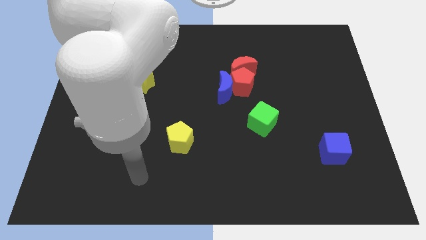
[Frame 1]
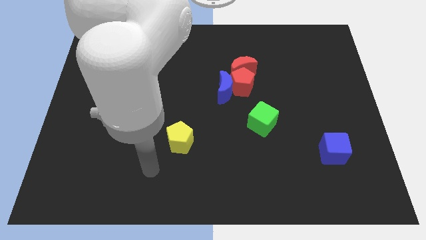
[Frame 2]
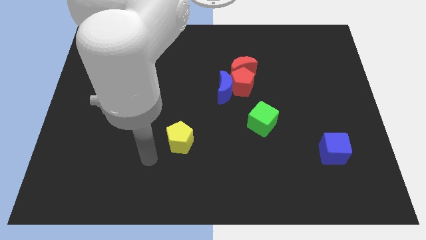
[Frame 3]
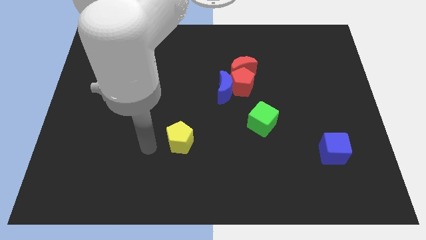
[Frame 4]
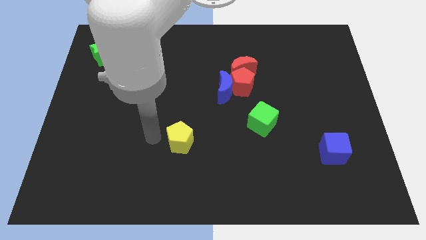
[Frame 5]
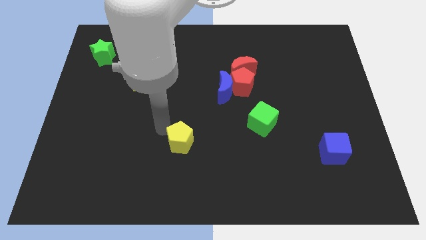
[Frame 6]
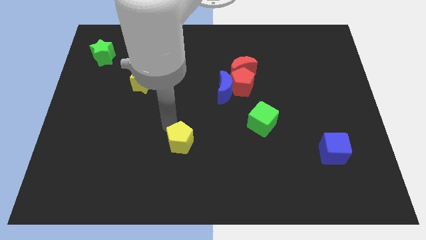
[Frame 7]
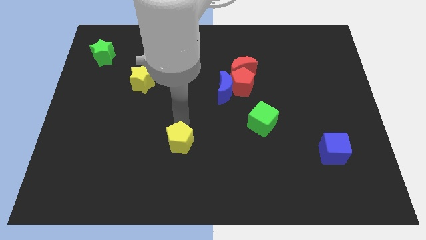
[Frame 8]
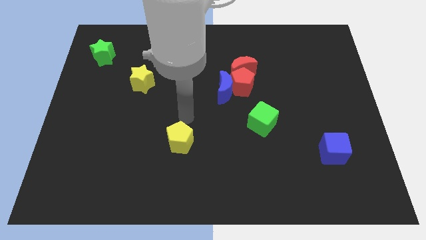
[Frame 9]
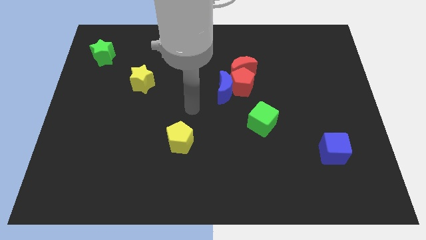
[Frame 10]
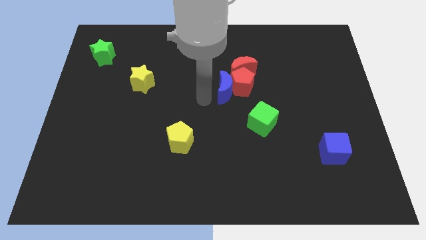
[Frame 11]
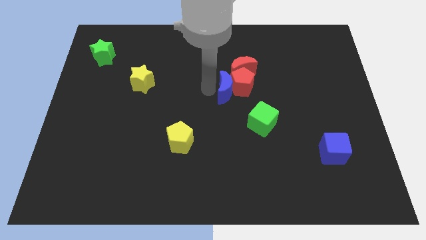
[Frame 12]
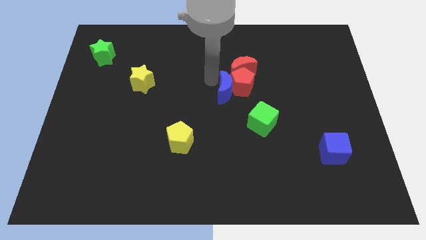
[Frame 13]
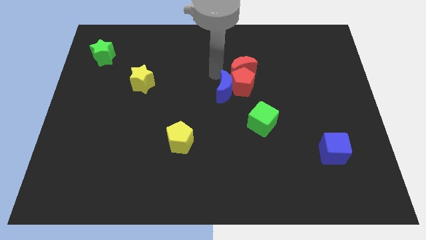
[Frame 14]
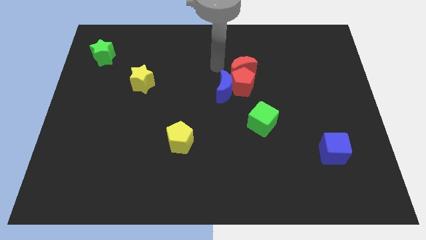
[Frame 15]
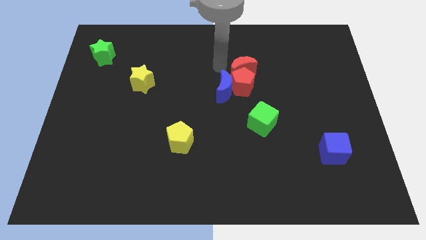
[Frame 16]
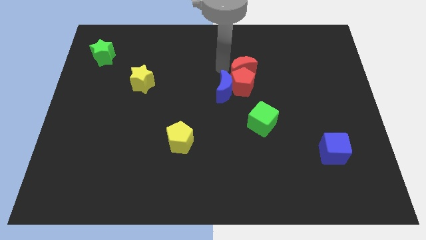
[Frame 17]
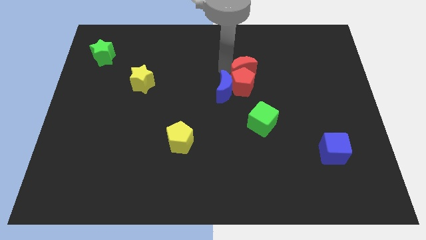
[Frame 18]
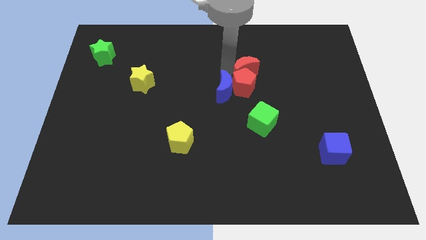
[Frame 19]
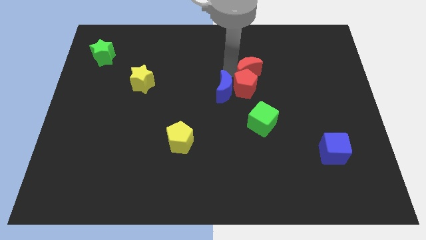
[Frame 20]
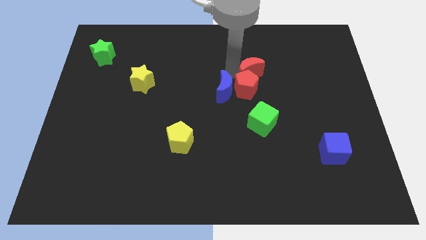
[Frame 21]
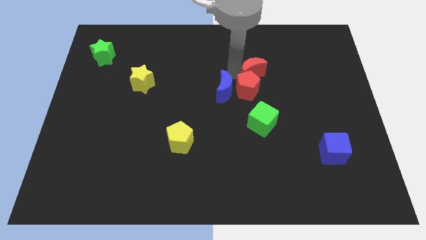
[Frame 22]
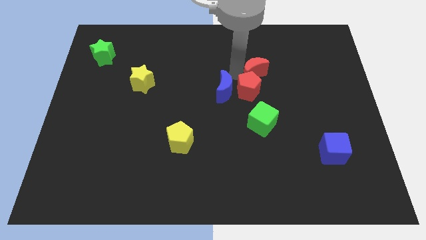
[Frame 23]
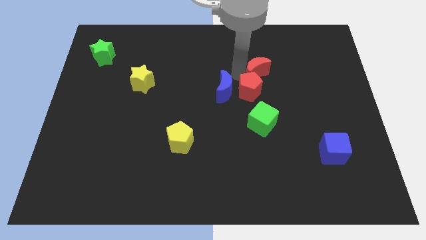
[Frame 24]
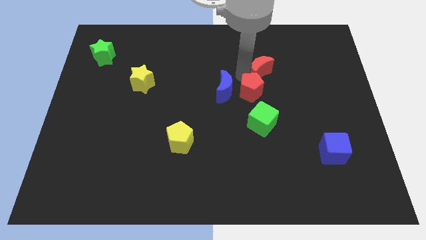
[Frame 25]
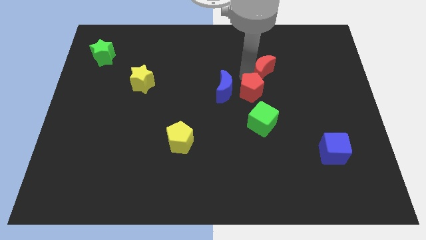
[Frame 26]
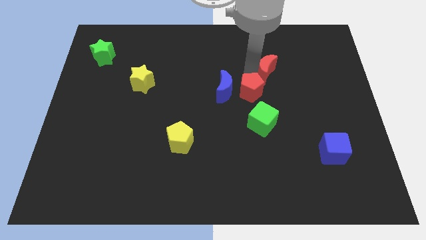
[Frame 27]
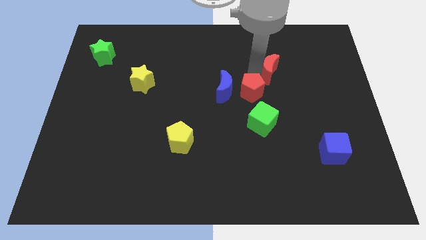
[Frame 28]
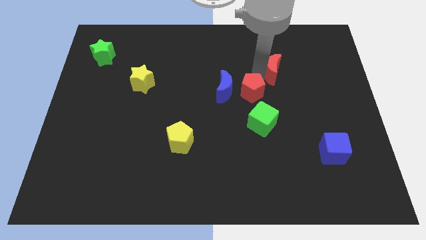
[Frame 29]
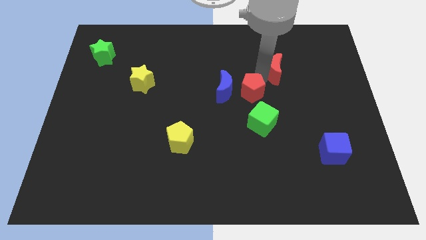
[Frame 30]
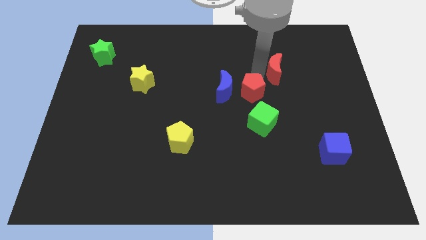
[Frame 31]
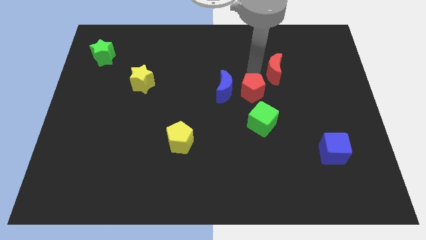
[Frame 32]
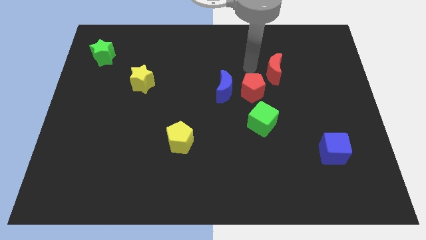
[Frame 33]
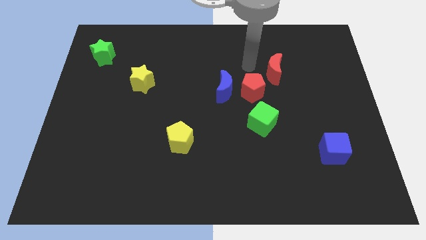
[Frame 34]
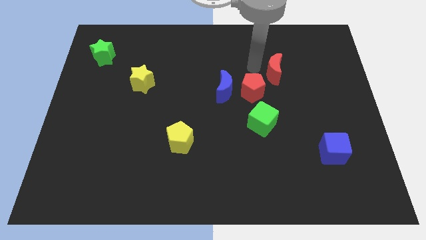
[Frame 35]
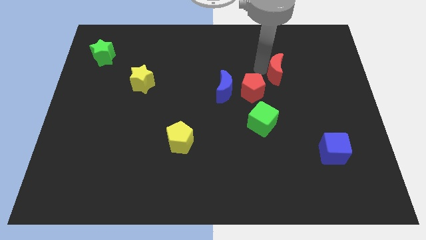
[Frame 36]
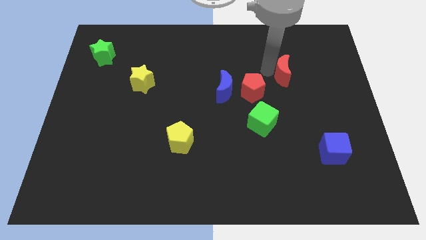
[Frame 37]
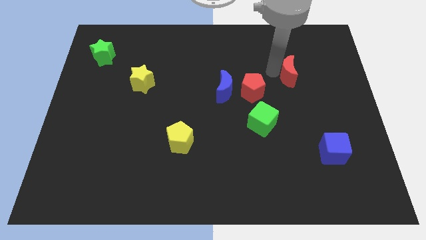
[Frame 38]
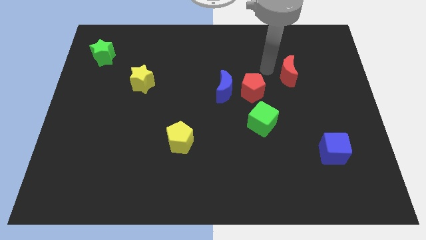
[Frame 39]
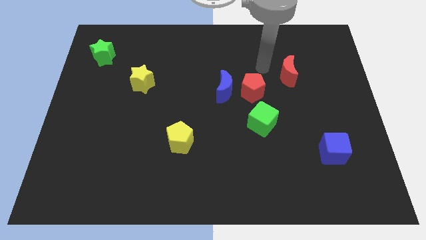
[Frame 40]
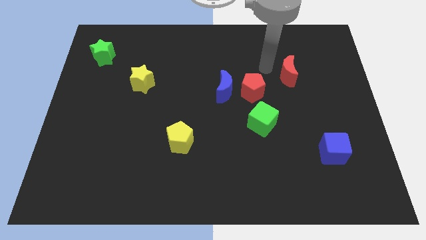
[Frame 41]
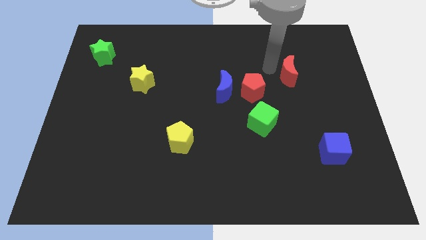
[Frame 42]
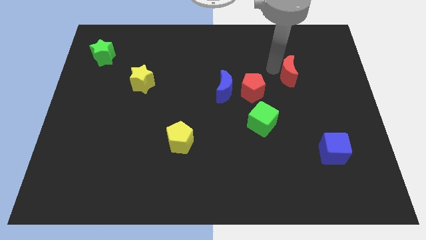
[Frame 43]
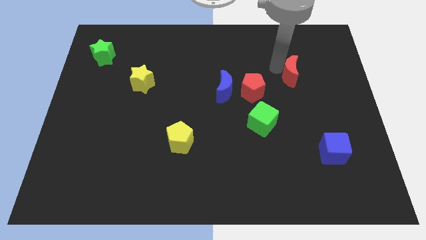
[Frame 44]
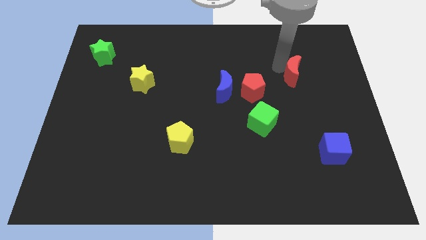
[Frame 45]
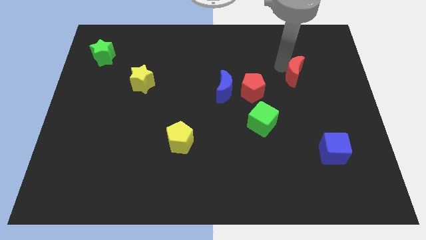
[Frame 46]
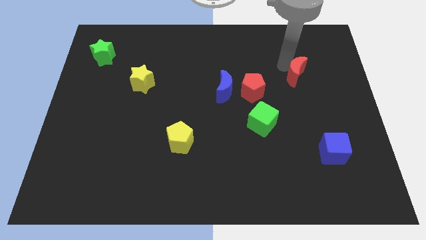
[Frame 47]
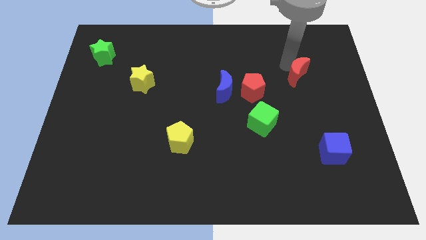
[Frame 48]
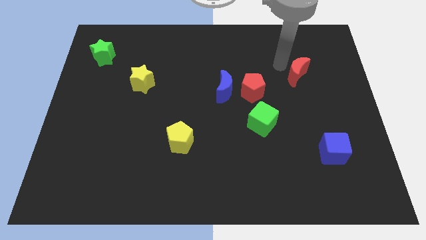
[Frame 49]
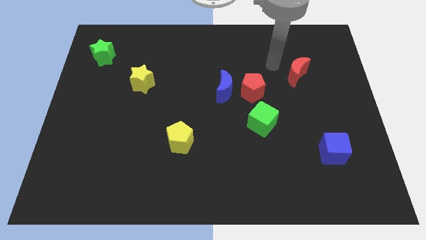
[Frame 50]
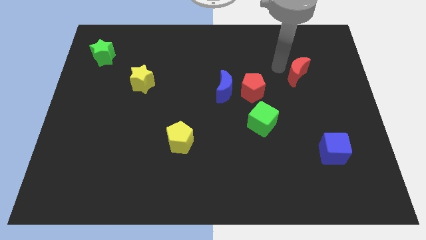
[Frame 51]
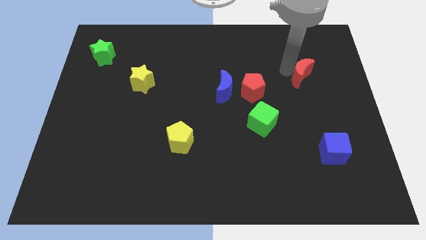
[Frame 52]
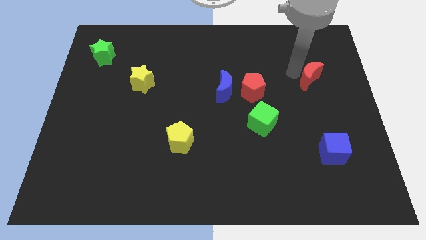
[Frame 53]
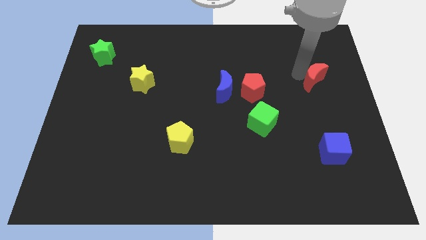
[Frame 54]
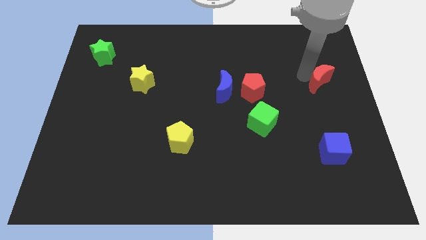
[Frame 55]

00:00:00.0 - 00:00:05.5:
put the red moon to the right side of the board
